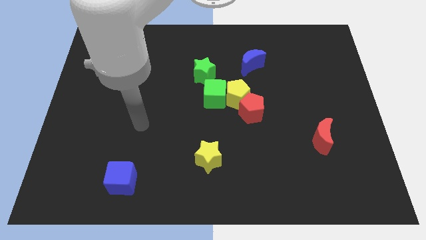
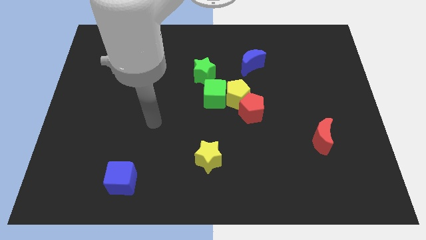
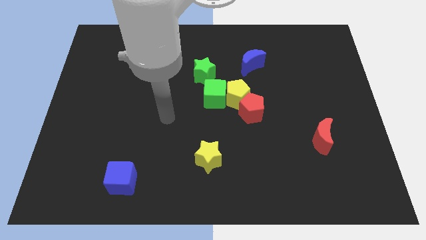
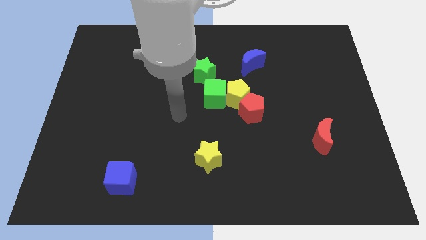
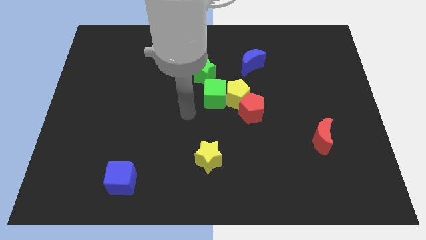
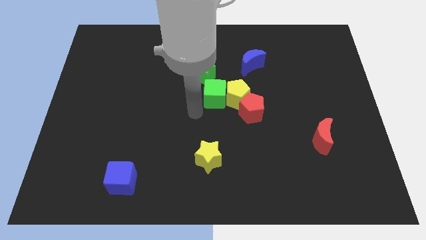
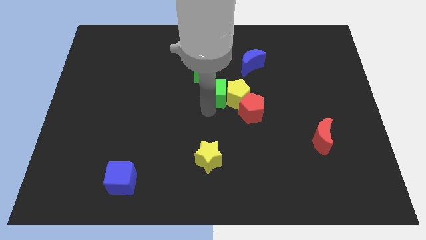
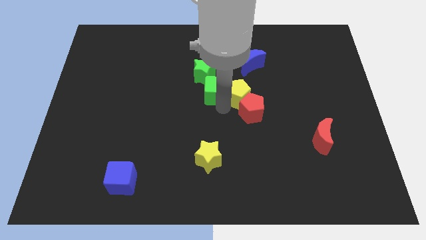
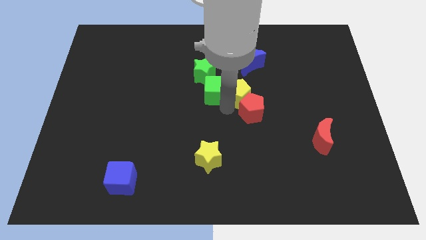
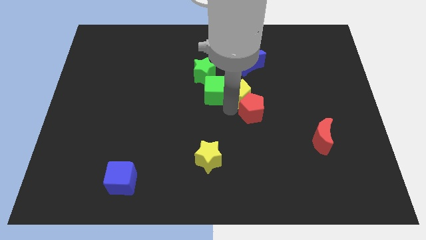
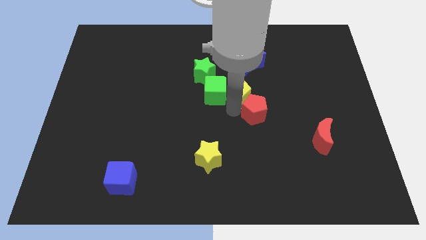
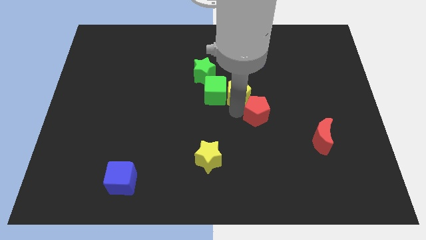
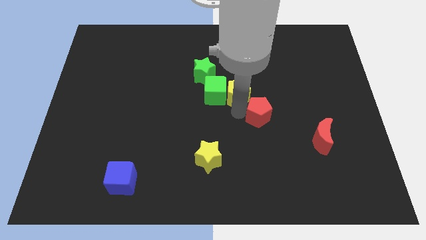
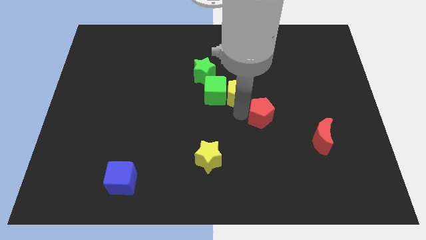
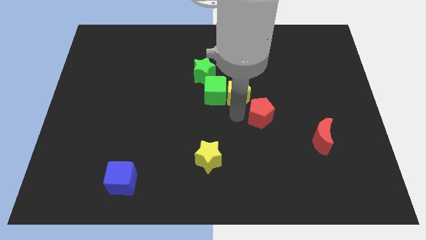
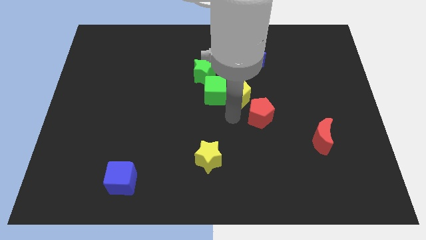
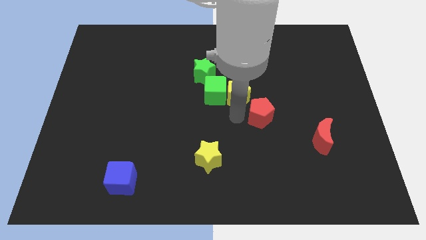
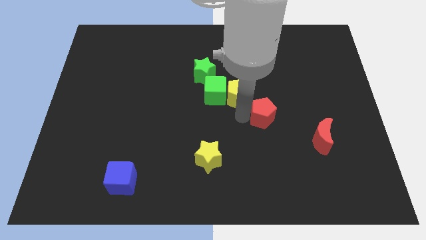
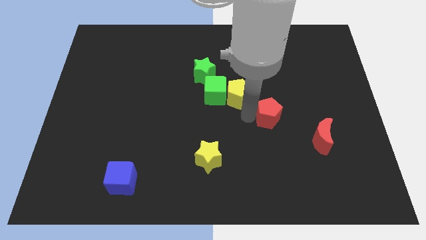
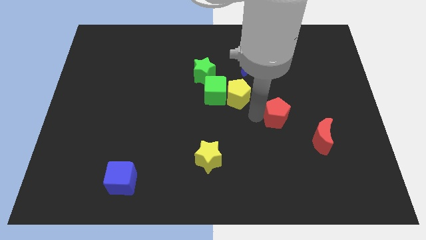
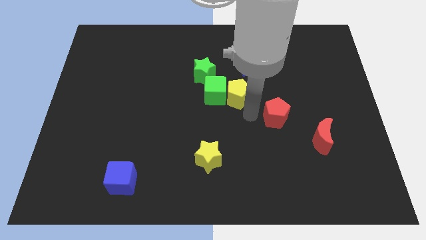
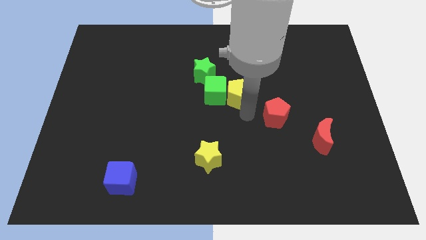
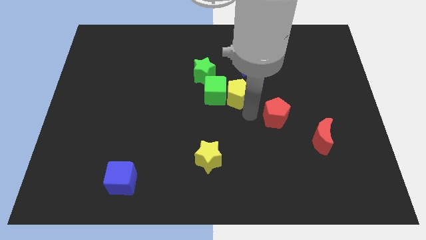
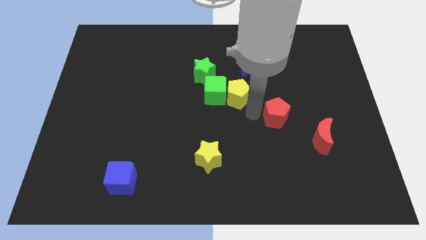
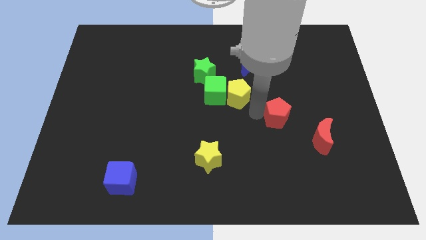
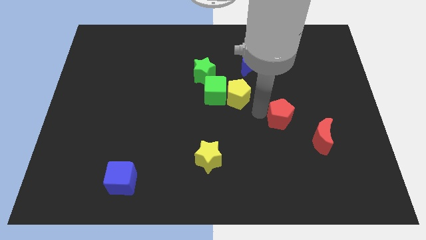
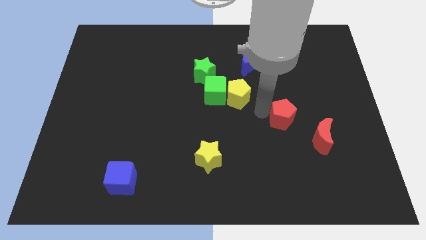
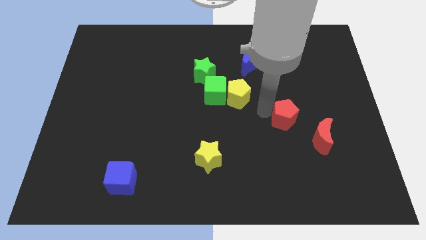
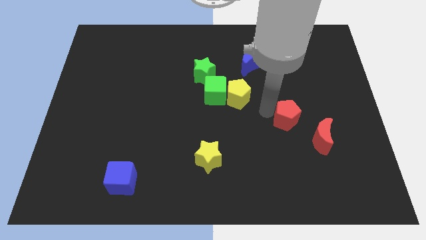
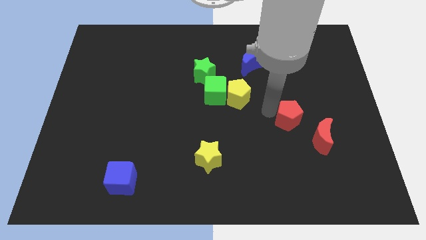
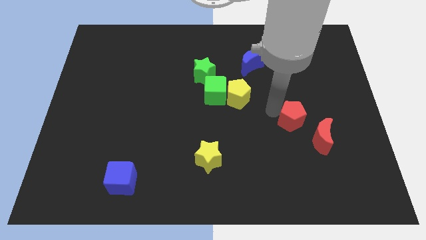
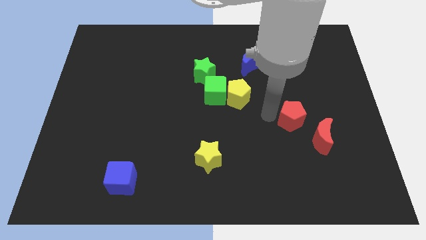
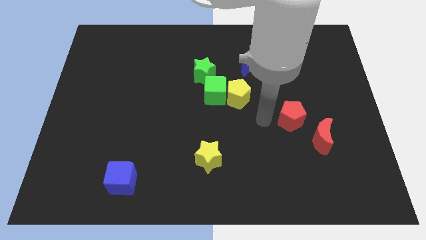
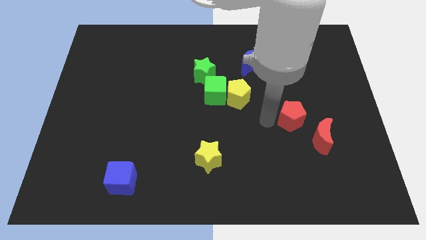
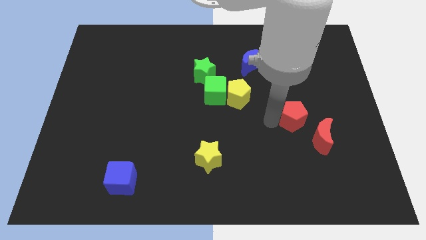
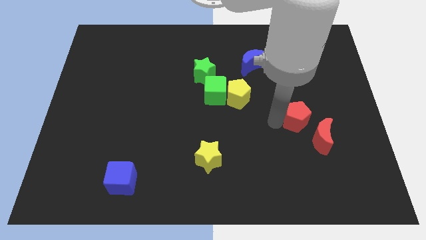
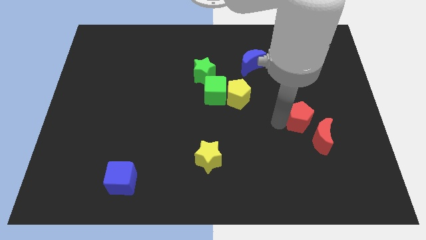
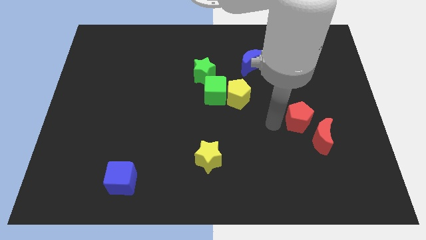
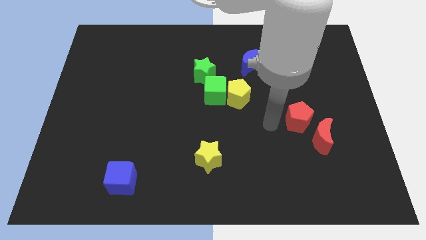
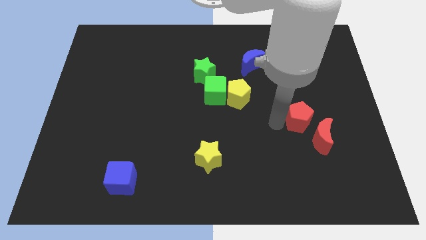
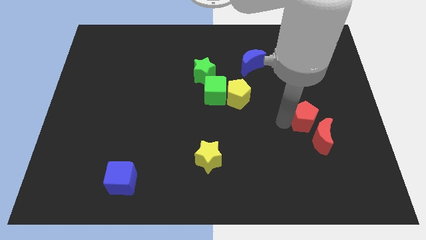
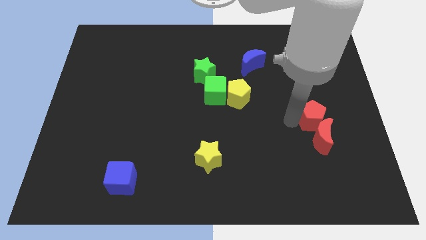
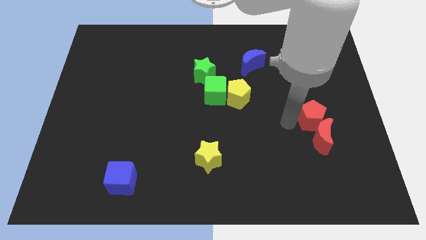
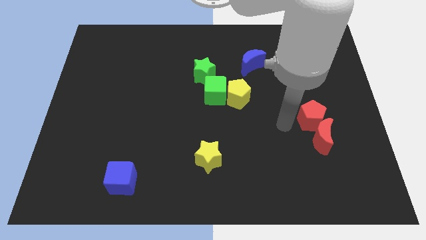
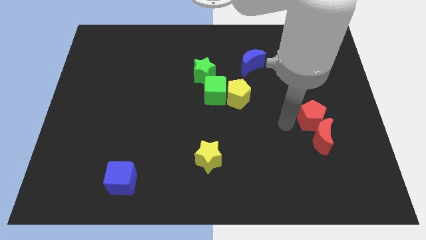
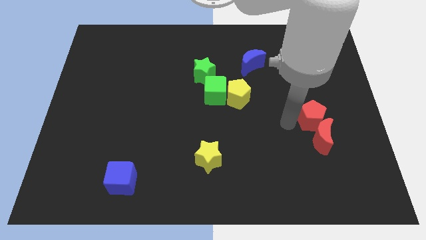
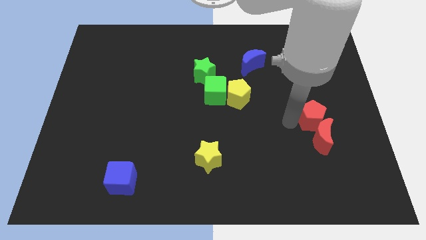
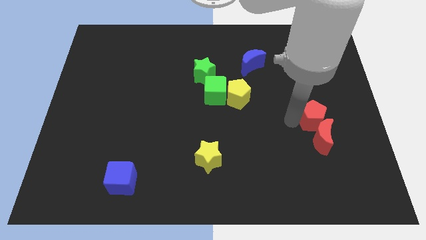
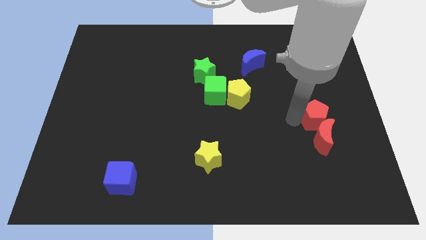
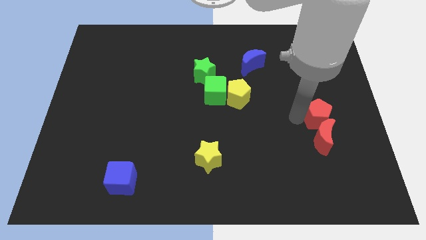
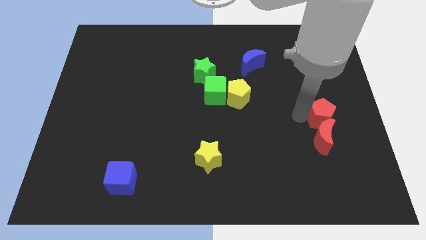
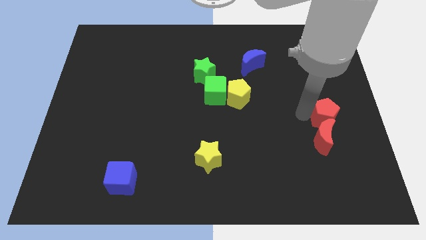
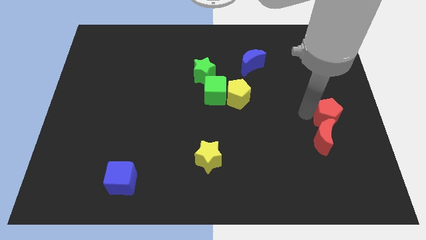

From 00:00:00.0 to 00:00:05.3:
move the red pentagon to the right side of the board

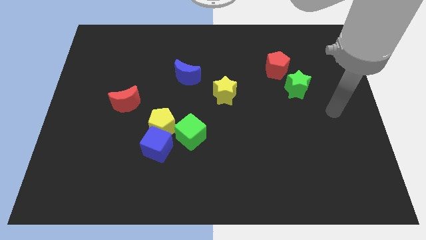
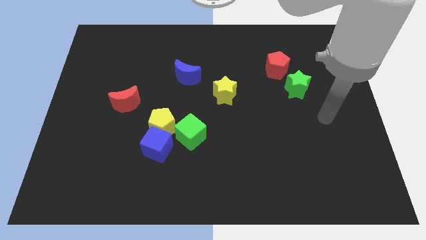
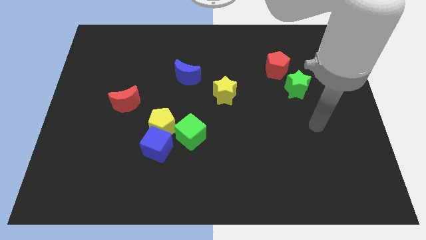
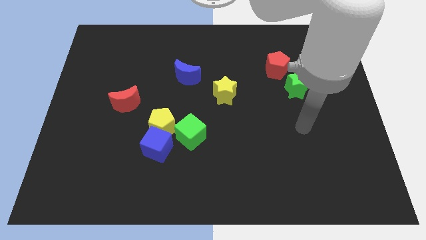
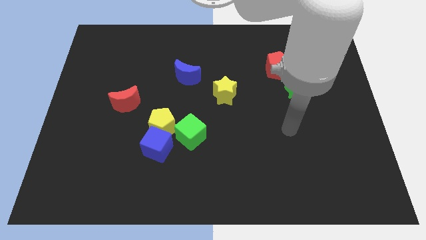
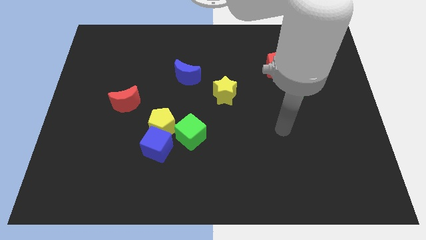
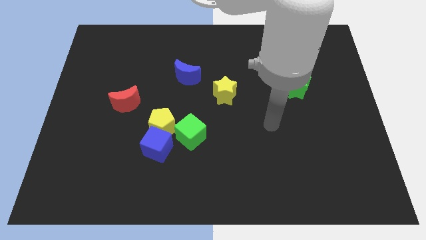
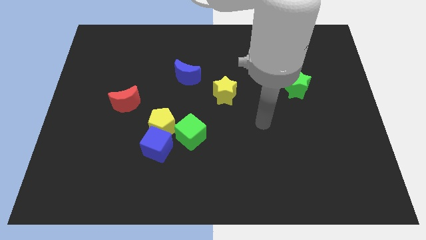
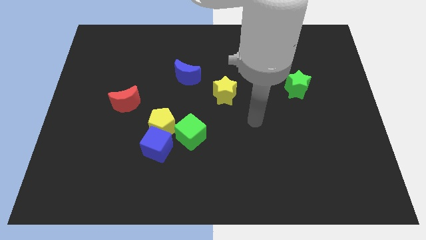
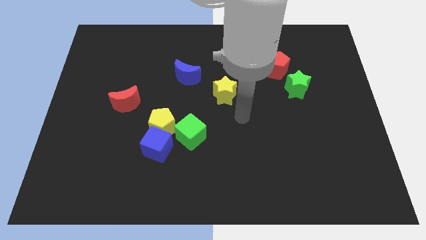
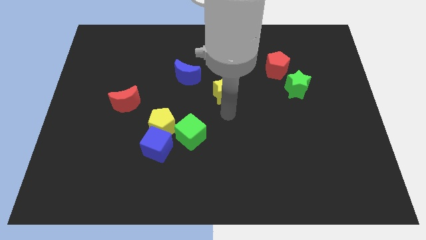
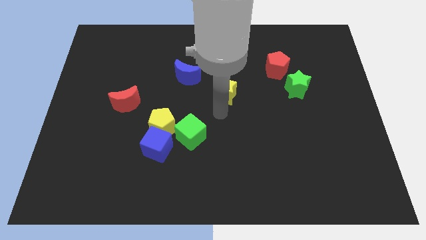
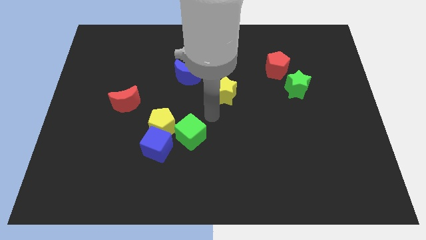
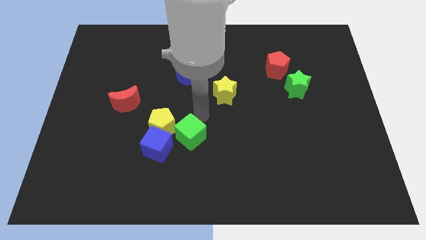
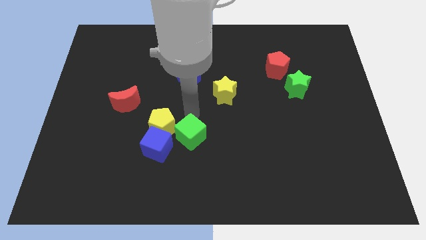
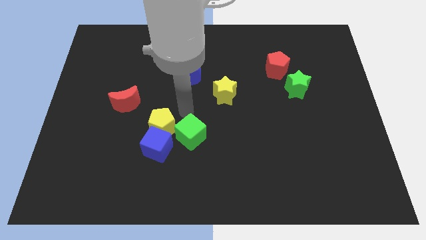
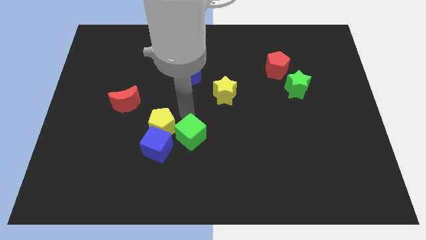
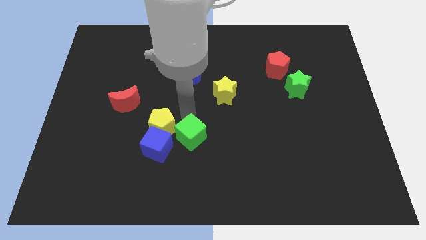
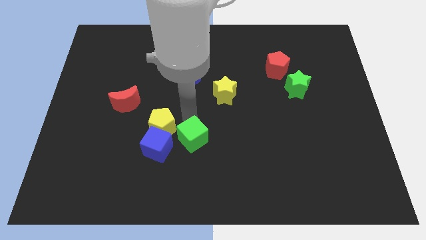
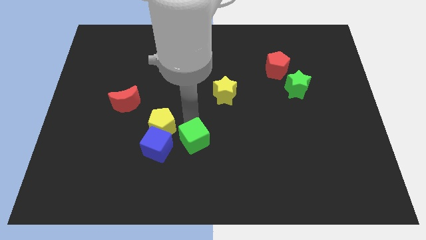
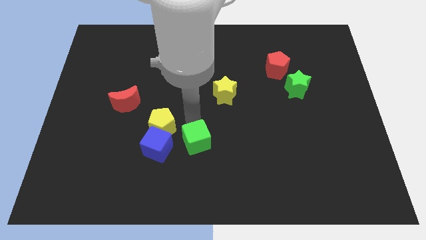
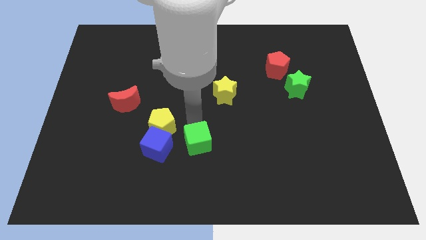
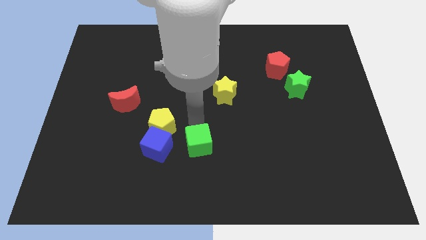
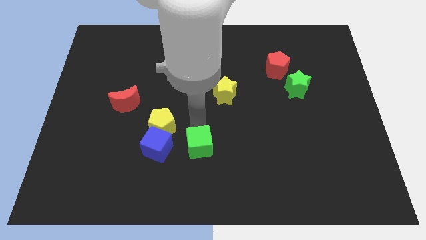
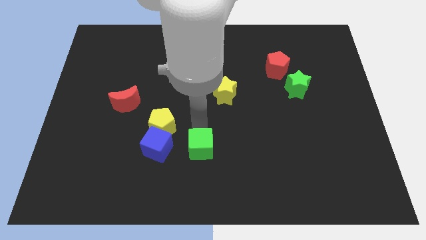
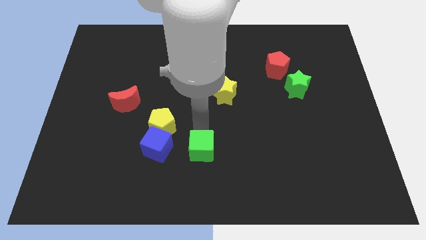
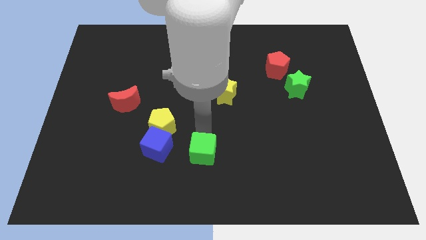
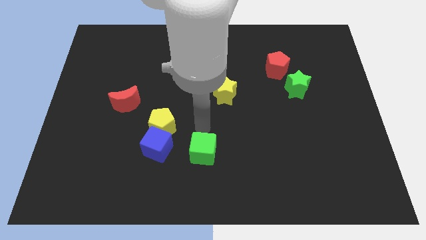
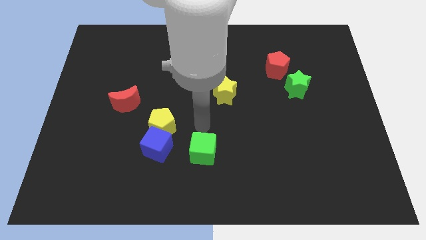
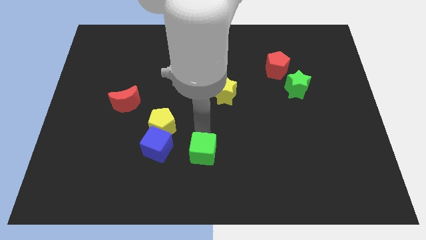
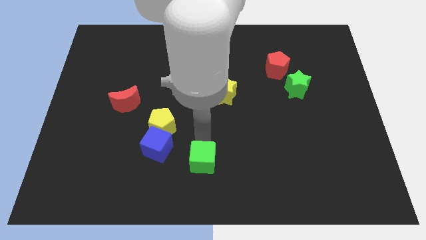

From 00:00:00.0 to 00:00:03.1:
slide the green cube to the bottom
